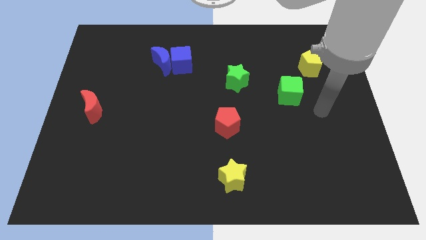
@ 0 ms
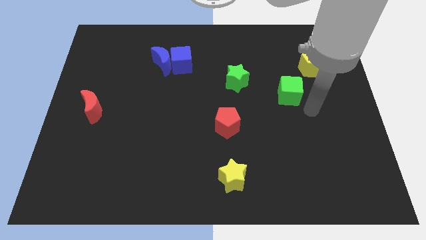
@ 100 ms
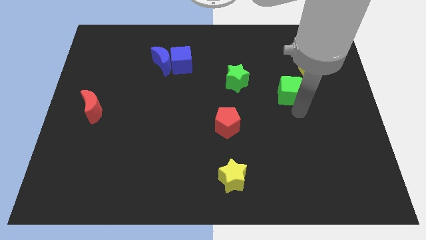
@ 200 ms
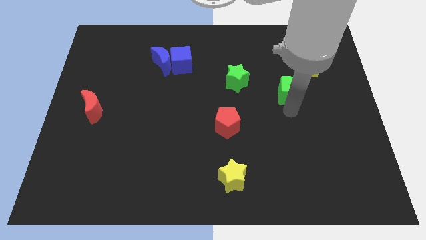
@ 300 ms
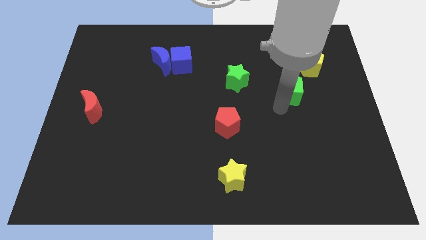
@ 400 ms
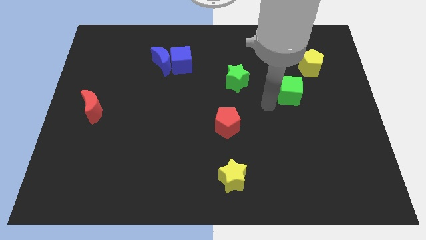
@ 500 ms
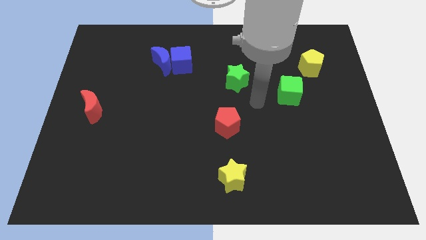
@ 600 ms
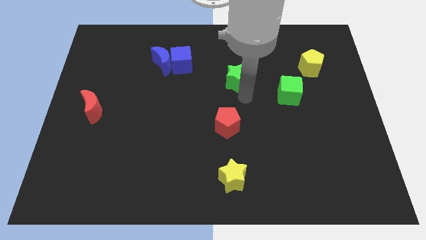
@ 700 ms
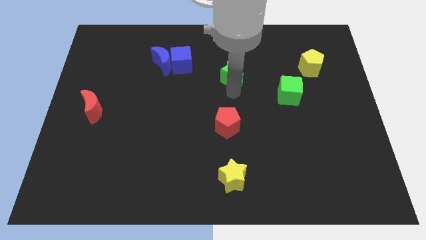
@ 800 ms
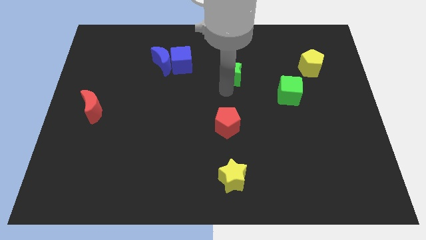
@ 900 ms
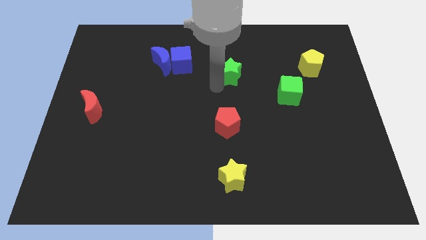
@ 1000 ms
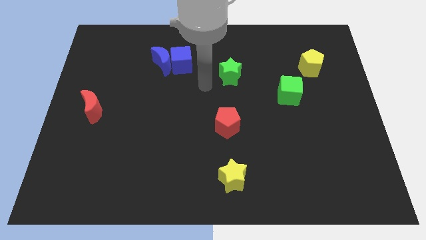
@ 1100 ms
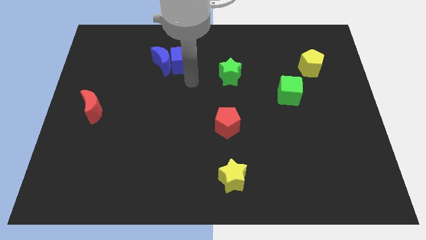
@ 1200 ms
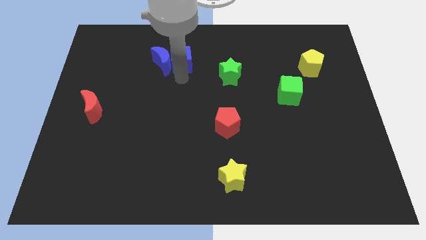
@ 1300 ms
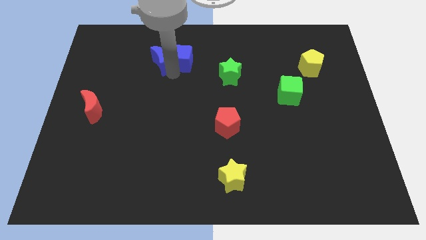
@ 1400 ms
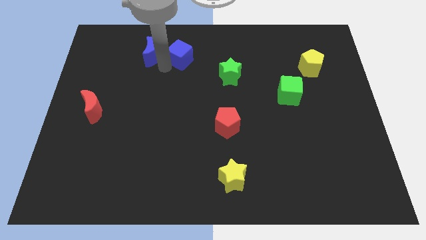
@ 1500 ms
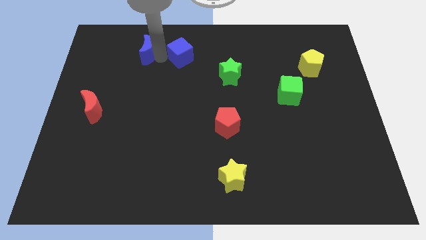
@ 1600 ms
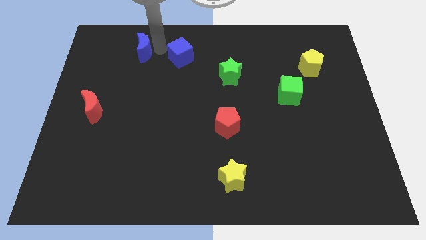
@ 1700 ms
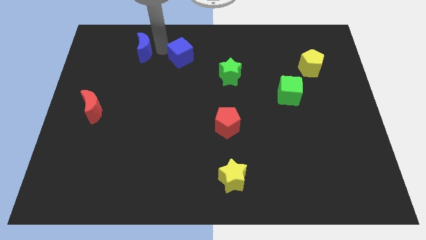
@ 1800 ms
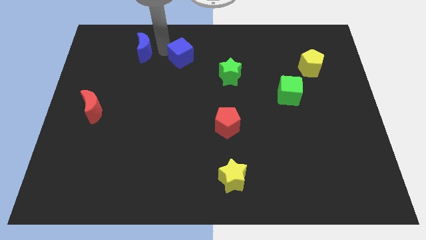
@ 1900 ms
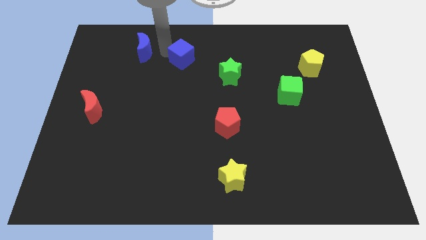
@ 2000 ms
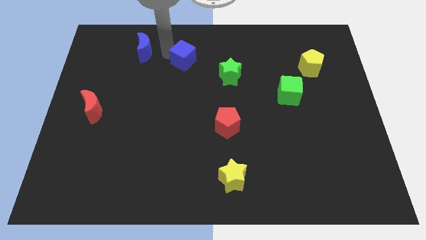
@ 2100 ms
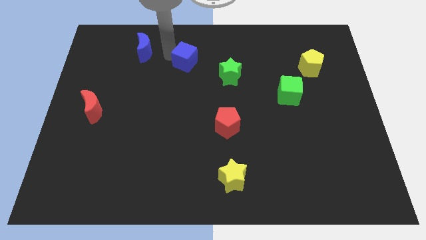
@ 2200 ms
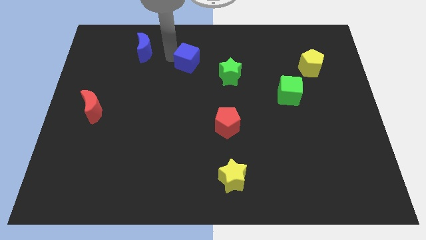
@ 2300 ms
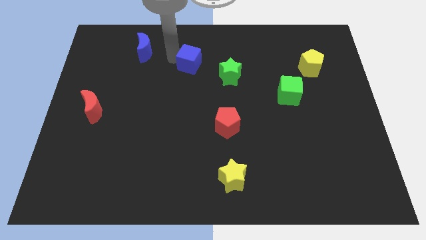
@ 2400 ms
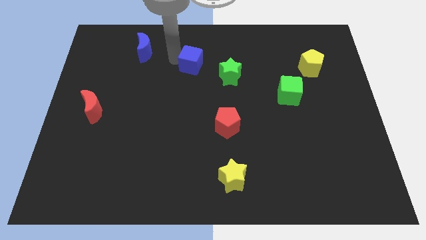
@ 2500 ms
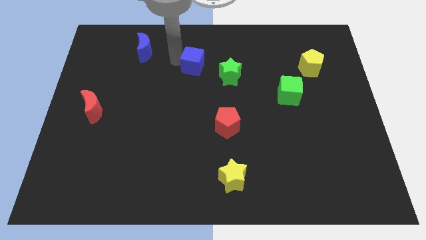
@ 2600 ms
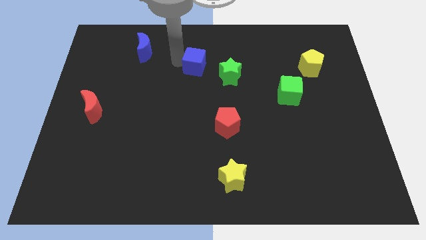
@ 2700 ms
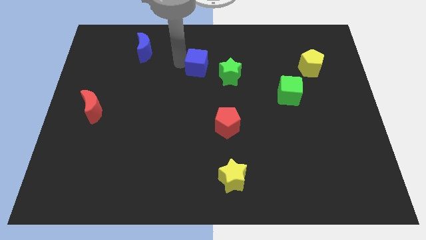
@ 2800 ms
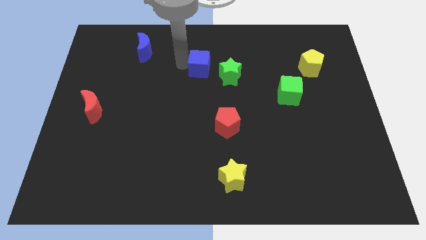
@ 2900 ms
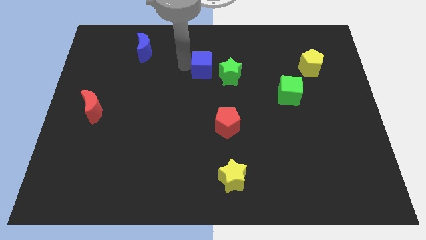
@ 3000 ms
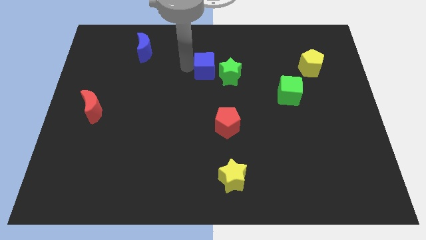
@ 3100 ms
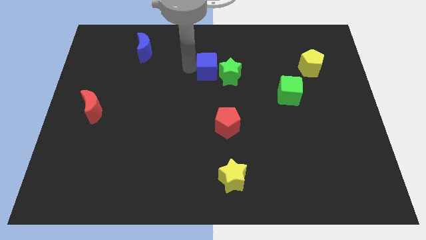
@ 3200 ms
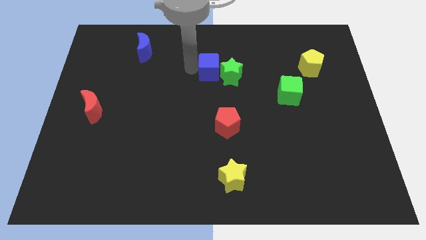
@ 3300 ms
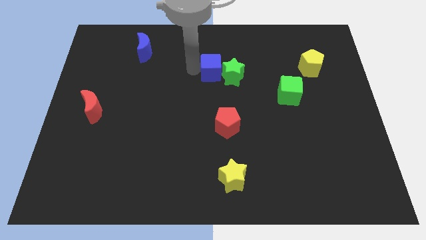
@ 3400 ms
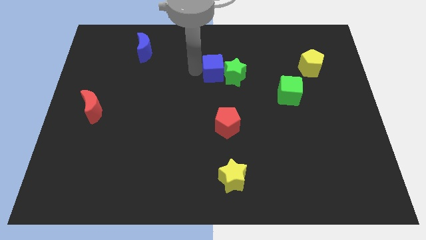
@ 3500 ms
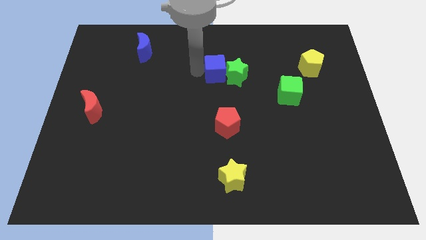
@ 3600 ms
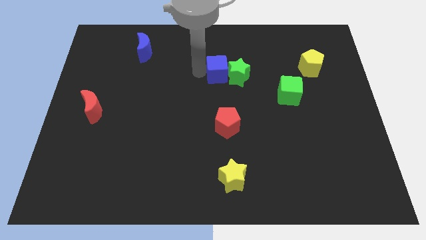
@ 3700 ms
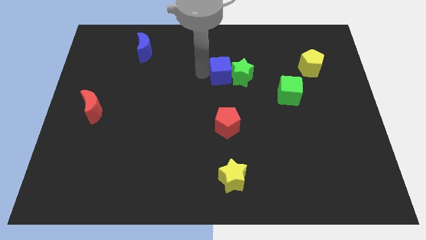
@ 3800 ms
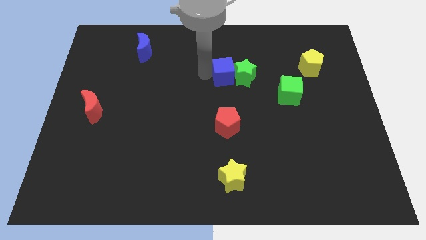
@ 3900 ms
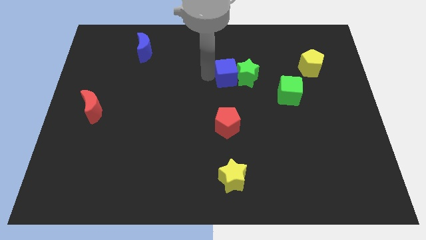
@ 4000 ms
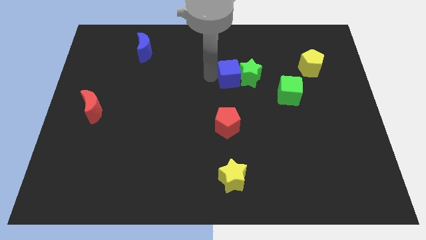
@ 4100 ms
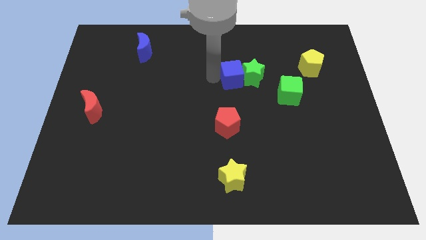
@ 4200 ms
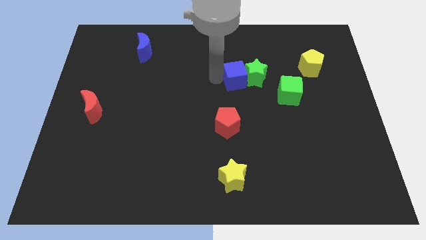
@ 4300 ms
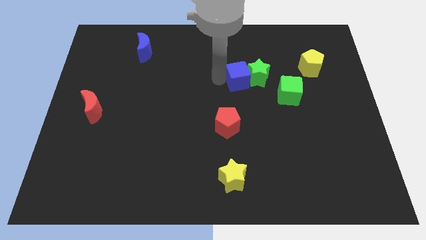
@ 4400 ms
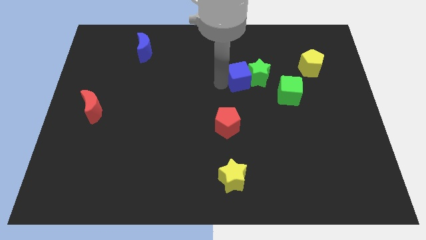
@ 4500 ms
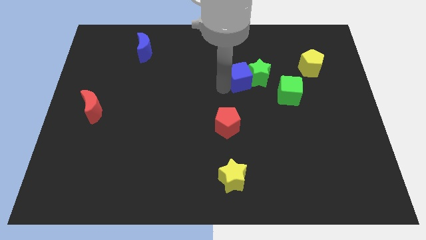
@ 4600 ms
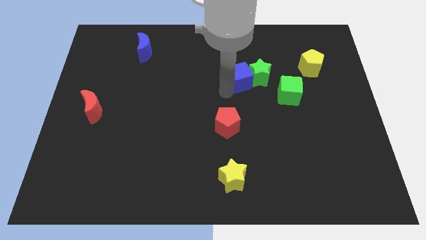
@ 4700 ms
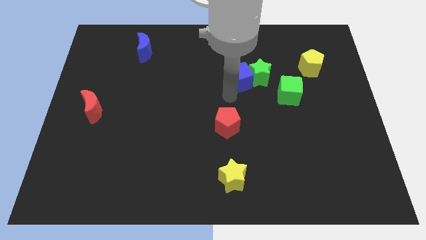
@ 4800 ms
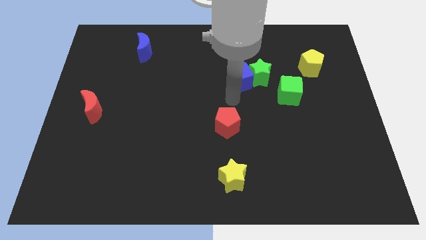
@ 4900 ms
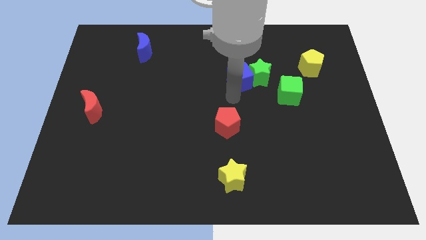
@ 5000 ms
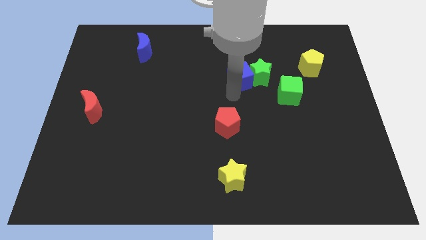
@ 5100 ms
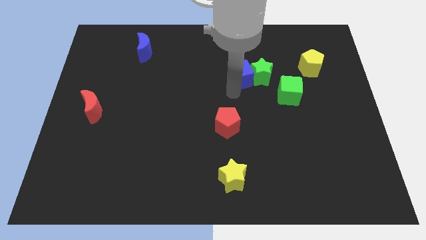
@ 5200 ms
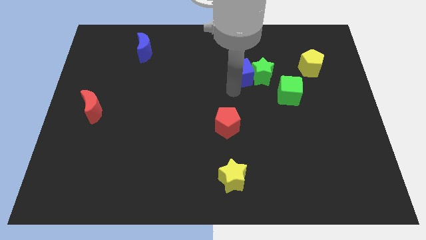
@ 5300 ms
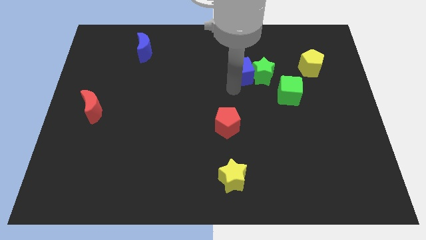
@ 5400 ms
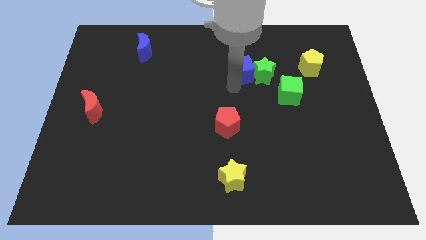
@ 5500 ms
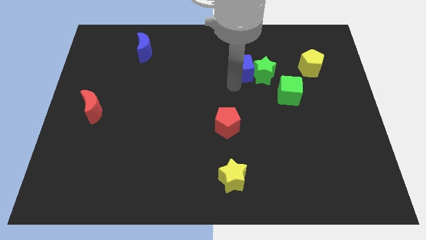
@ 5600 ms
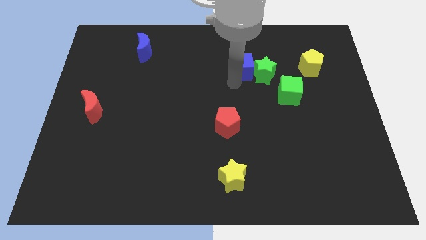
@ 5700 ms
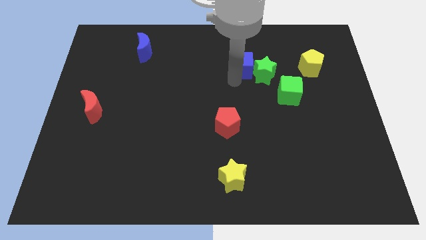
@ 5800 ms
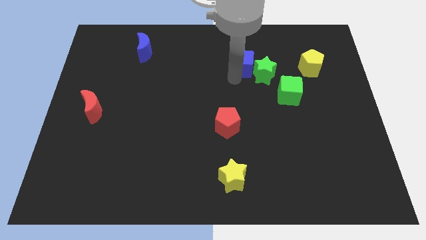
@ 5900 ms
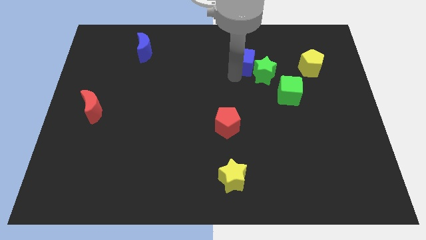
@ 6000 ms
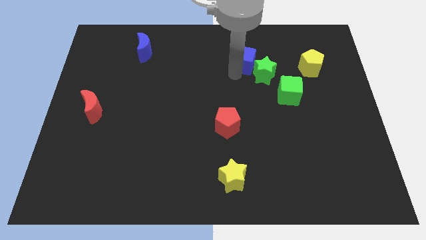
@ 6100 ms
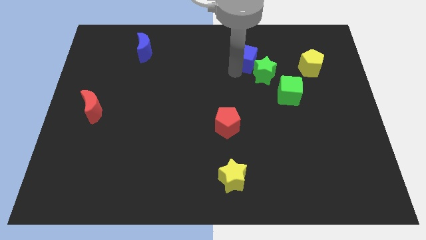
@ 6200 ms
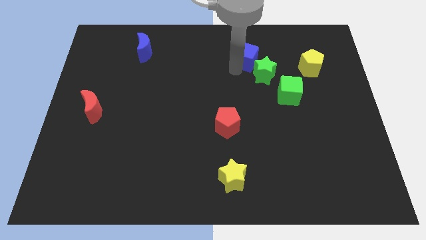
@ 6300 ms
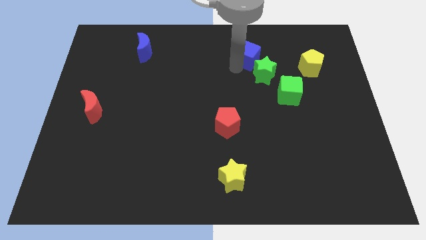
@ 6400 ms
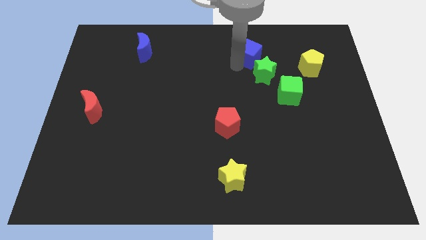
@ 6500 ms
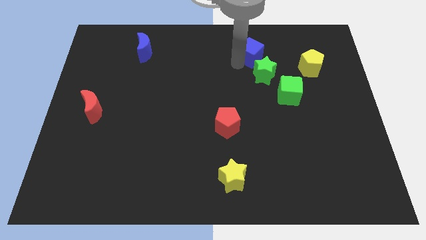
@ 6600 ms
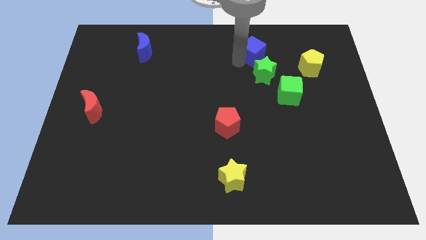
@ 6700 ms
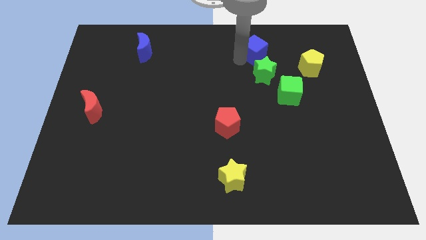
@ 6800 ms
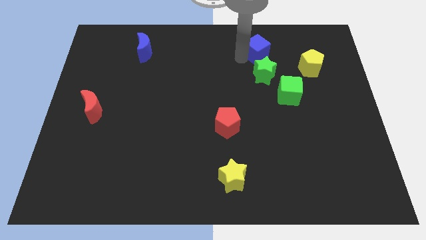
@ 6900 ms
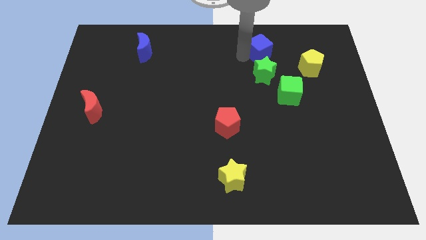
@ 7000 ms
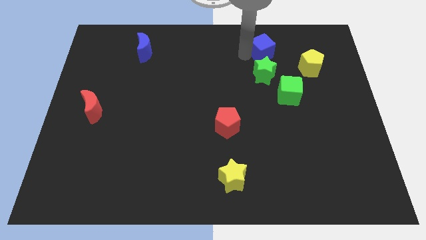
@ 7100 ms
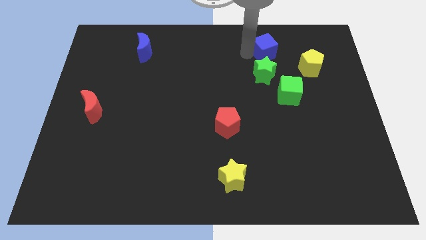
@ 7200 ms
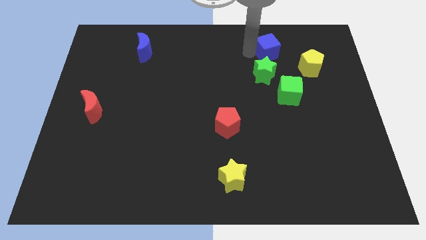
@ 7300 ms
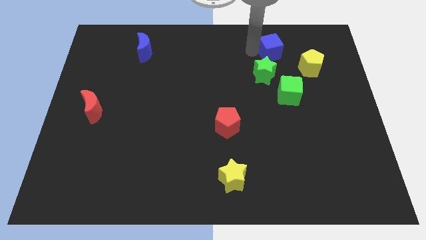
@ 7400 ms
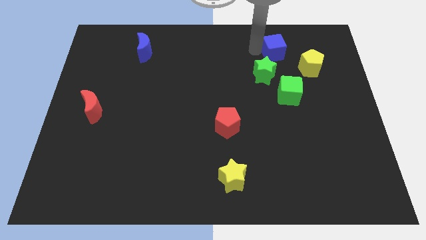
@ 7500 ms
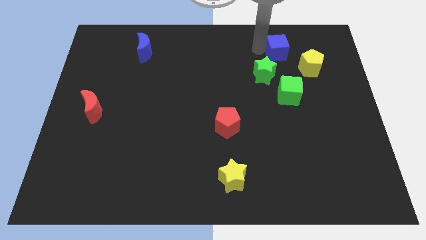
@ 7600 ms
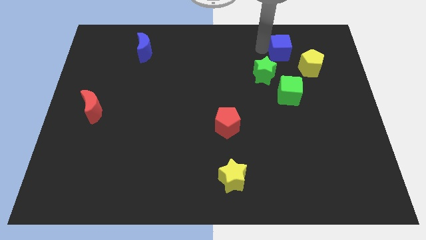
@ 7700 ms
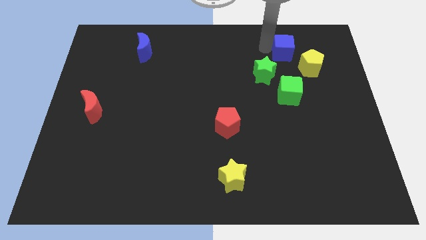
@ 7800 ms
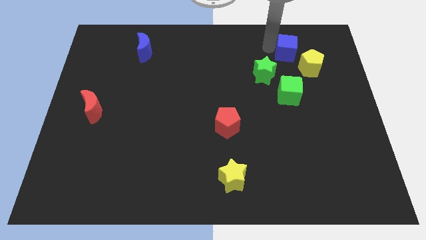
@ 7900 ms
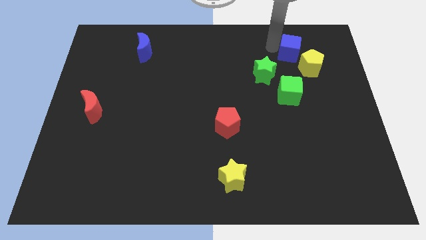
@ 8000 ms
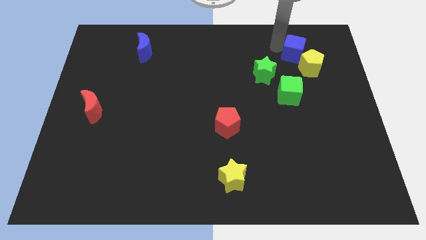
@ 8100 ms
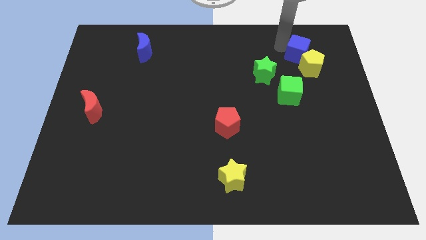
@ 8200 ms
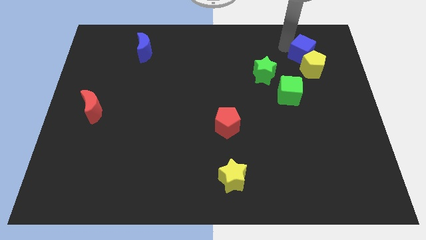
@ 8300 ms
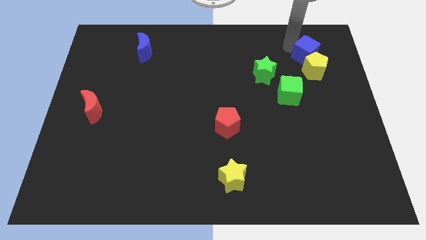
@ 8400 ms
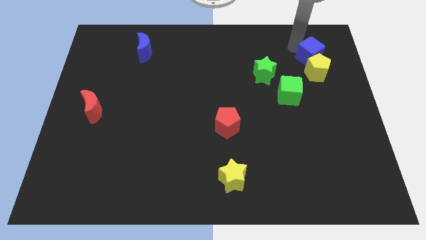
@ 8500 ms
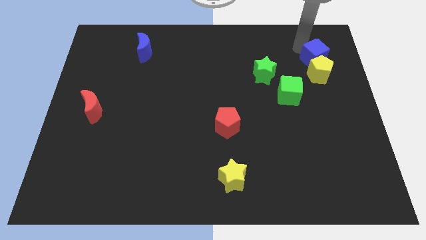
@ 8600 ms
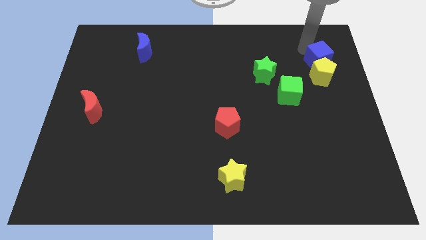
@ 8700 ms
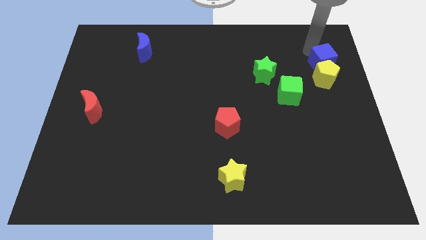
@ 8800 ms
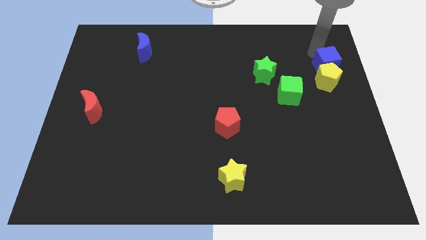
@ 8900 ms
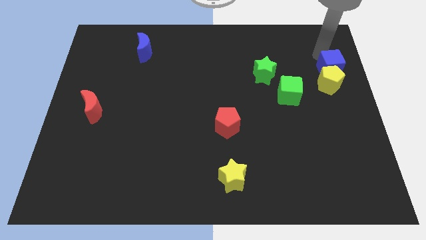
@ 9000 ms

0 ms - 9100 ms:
put the blue cube to the right side of the board
